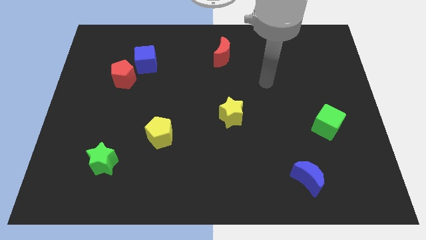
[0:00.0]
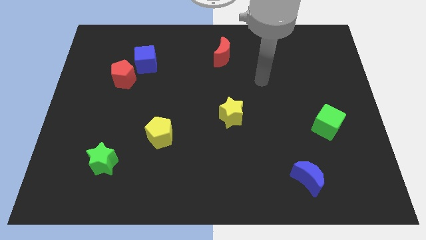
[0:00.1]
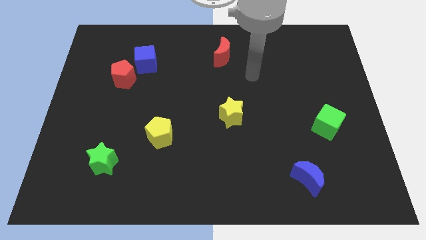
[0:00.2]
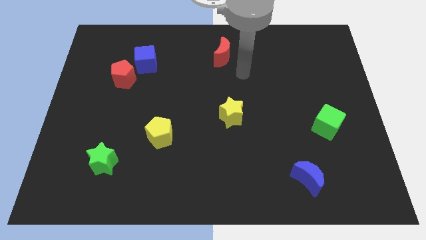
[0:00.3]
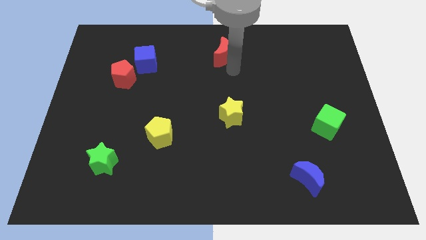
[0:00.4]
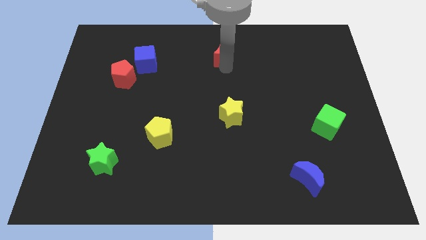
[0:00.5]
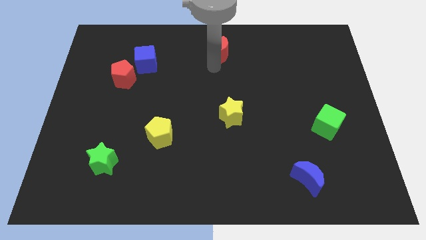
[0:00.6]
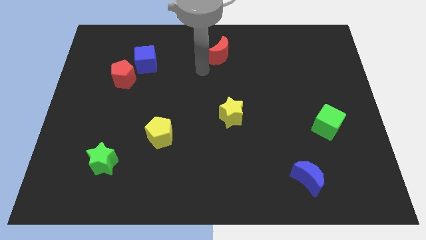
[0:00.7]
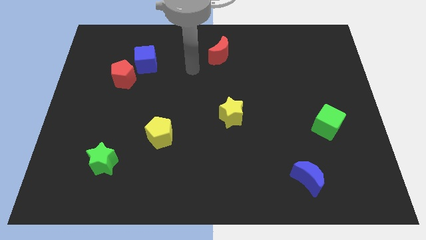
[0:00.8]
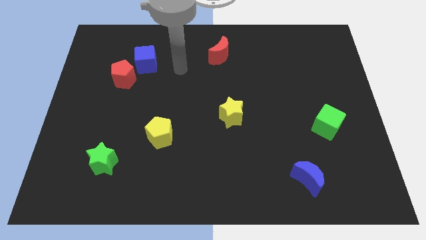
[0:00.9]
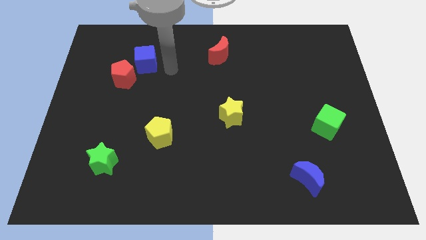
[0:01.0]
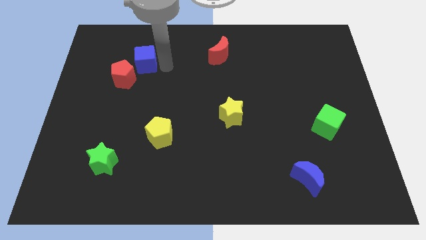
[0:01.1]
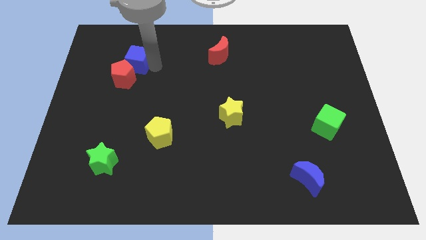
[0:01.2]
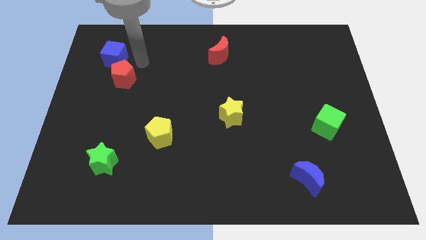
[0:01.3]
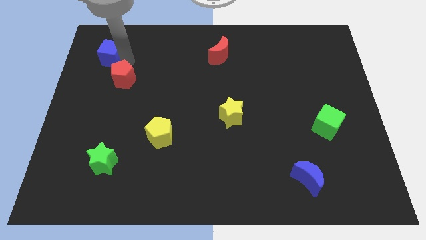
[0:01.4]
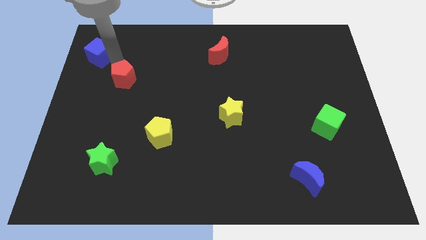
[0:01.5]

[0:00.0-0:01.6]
pull the red pentagon apart from the blue cube

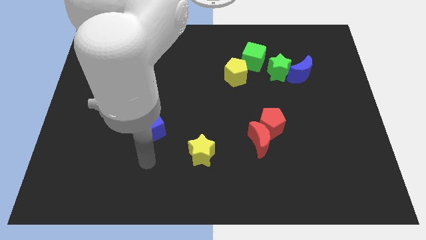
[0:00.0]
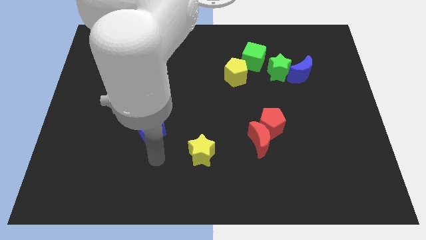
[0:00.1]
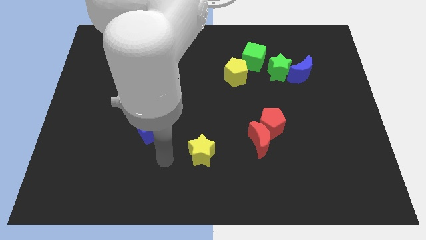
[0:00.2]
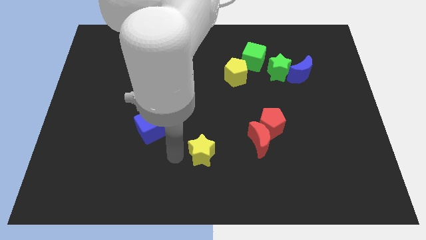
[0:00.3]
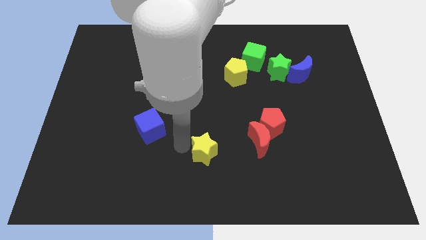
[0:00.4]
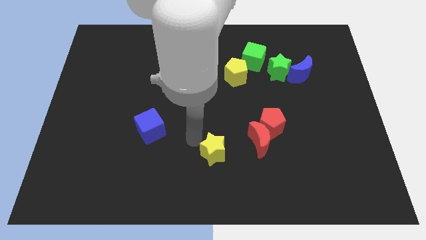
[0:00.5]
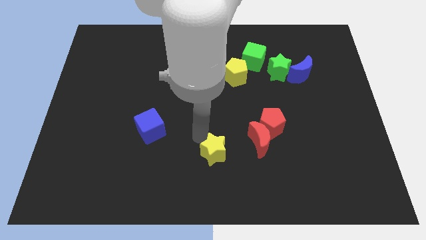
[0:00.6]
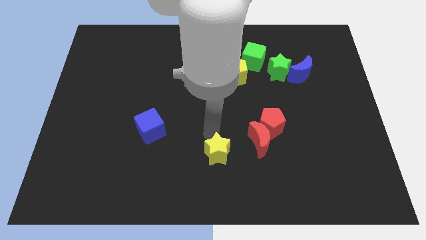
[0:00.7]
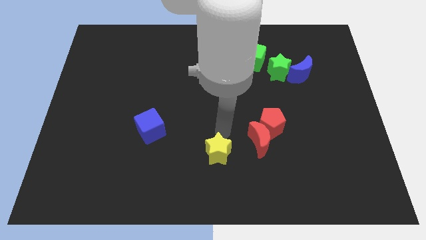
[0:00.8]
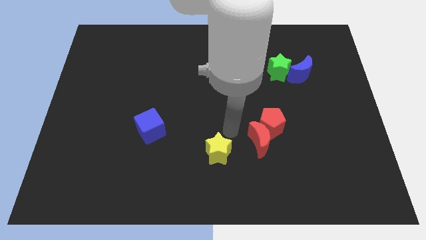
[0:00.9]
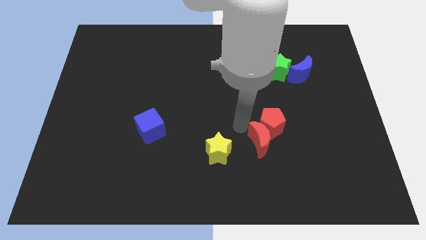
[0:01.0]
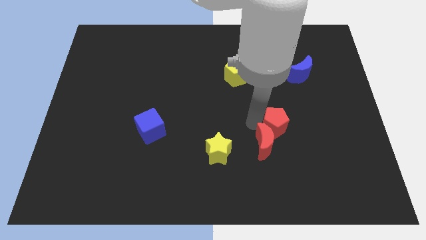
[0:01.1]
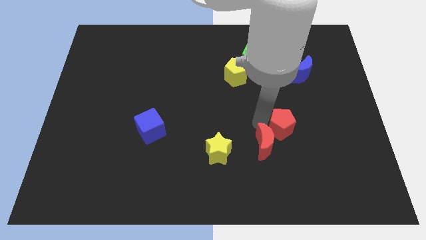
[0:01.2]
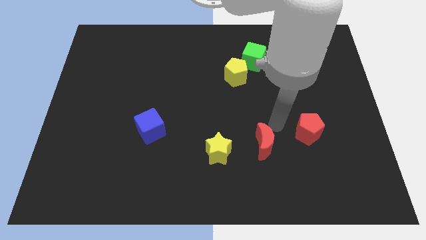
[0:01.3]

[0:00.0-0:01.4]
move the red moon away from the red pentagon

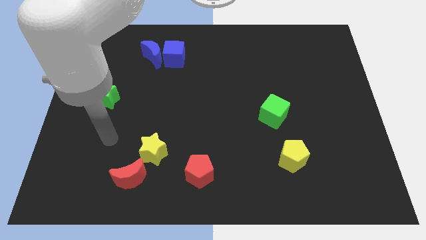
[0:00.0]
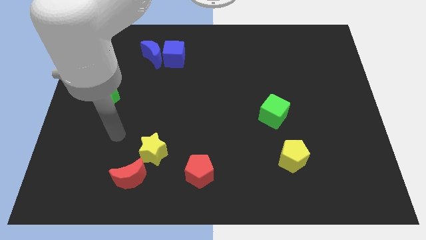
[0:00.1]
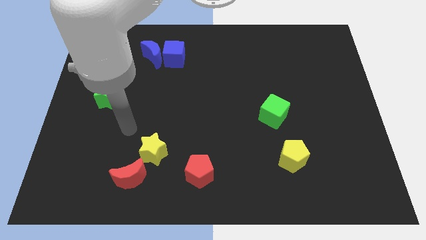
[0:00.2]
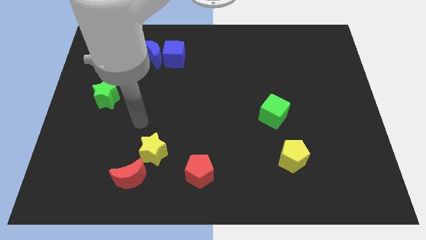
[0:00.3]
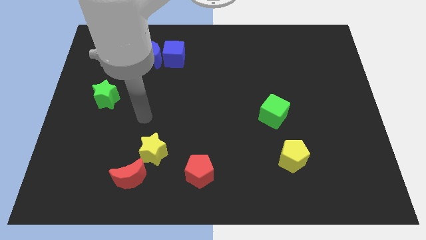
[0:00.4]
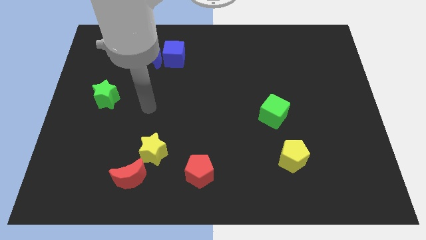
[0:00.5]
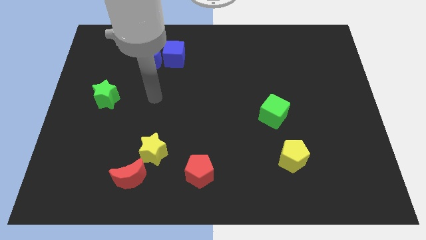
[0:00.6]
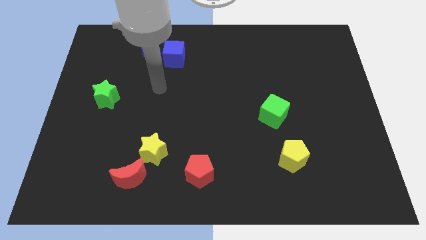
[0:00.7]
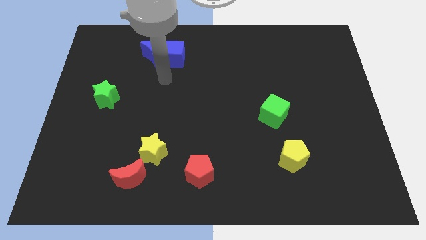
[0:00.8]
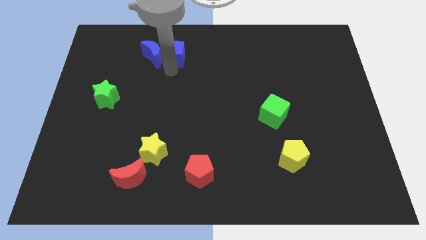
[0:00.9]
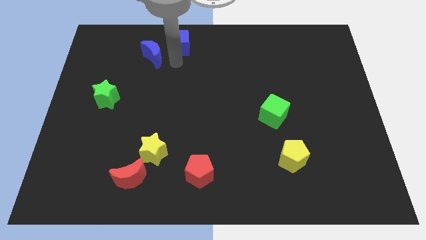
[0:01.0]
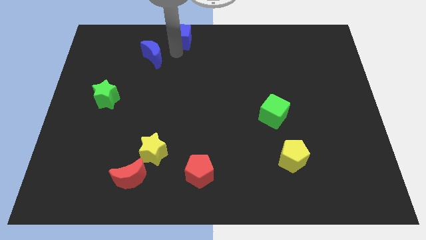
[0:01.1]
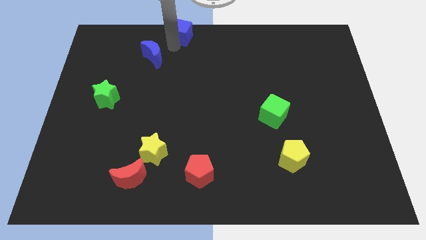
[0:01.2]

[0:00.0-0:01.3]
separate the blue moon from the blue cube

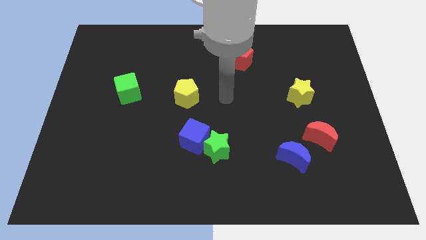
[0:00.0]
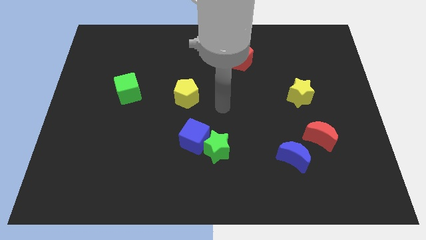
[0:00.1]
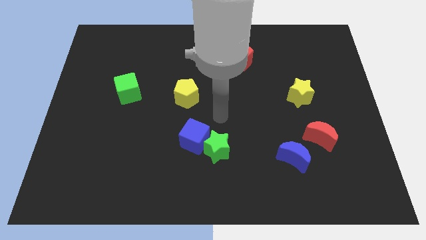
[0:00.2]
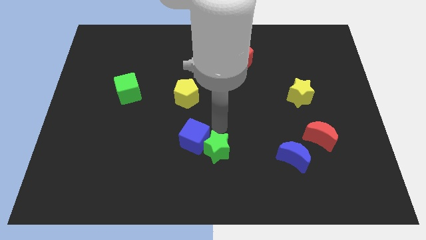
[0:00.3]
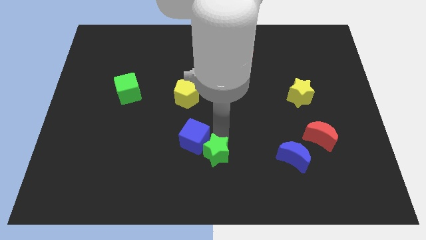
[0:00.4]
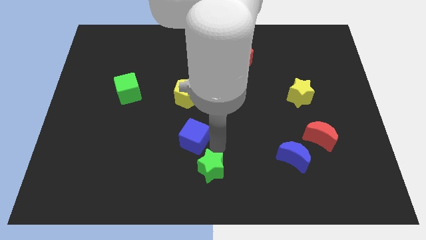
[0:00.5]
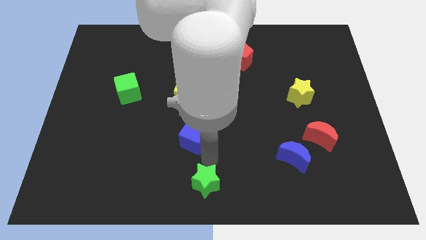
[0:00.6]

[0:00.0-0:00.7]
separate the blue cube from the green star

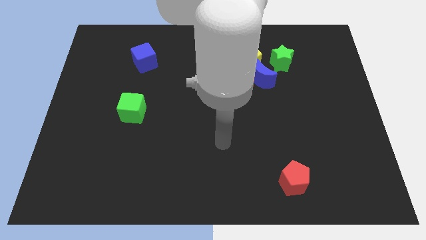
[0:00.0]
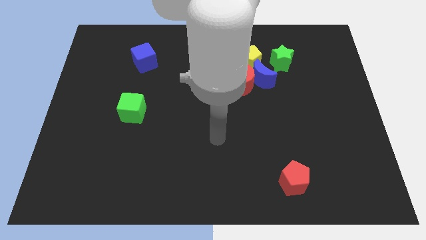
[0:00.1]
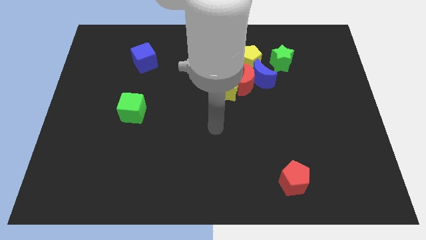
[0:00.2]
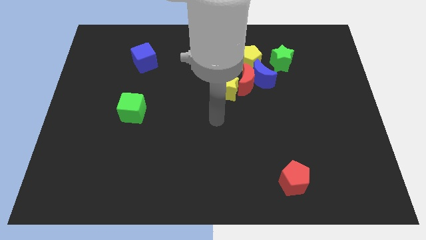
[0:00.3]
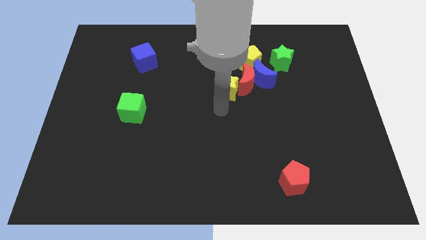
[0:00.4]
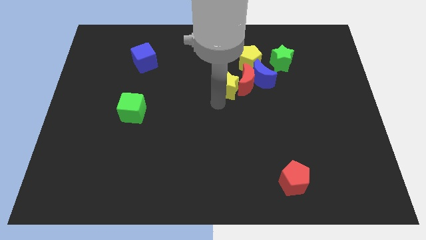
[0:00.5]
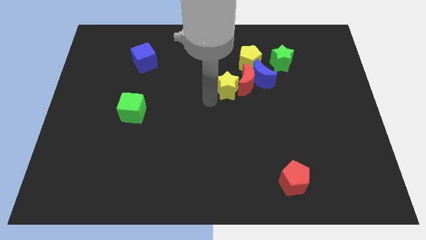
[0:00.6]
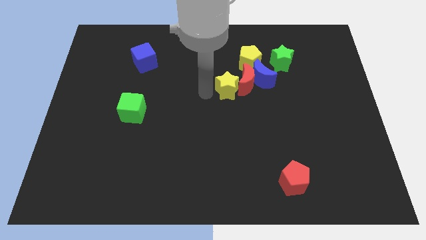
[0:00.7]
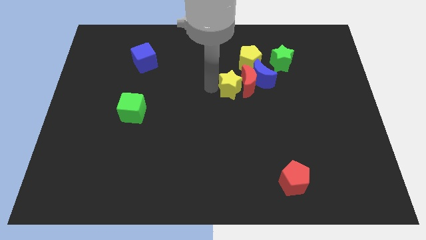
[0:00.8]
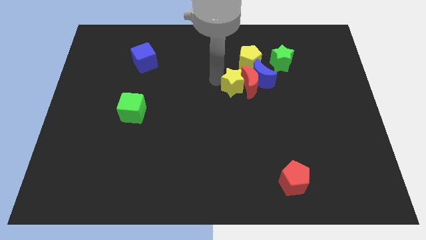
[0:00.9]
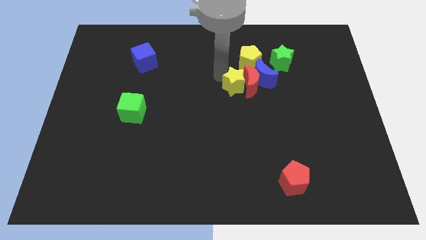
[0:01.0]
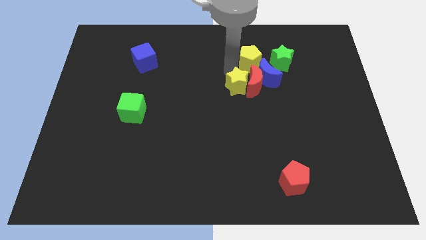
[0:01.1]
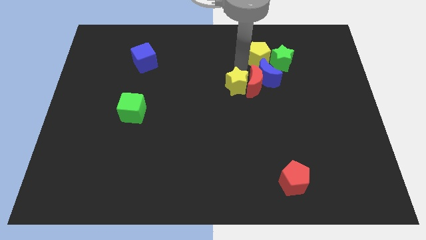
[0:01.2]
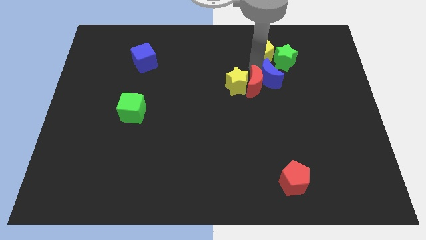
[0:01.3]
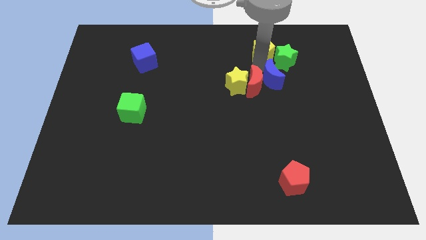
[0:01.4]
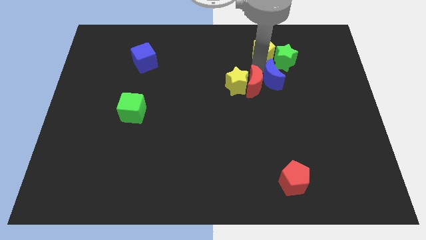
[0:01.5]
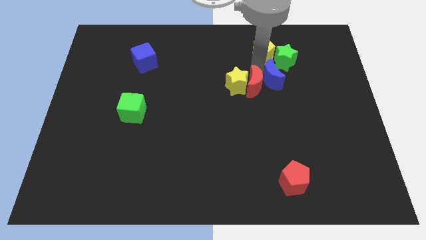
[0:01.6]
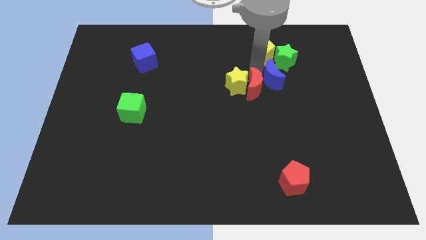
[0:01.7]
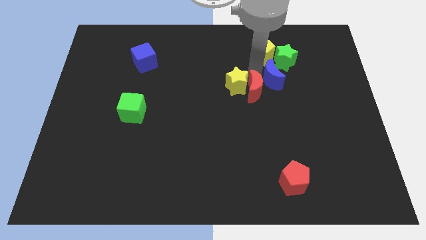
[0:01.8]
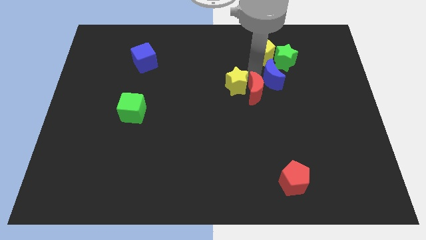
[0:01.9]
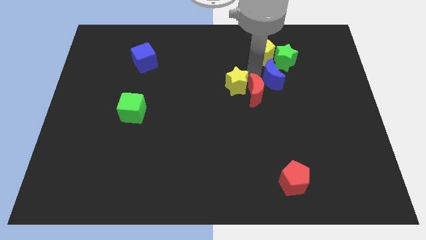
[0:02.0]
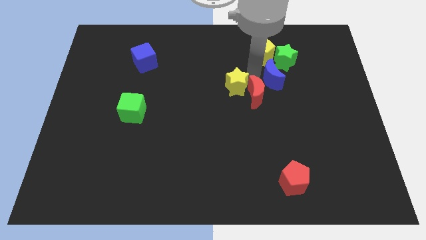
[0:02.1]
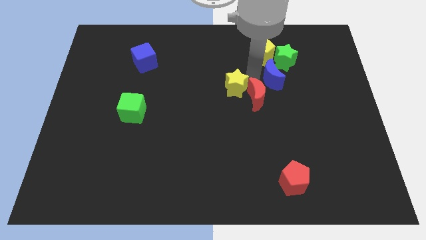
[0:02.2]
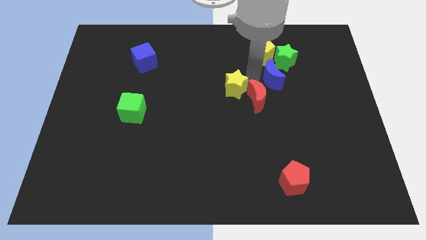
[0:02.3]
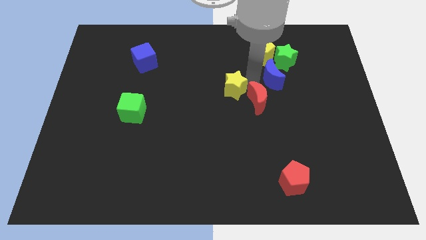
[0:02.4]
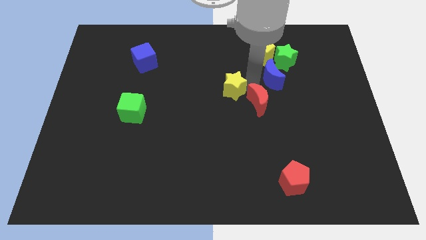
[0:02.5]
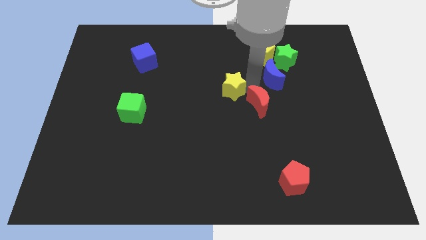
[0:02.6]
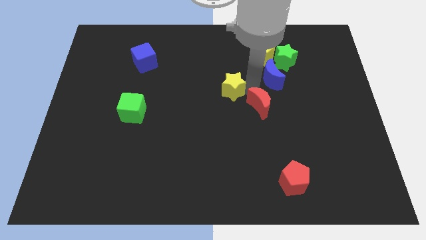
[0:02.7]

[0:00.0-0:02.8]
move the red moon away from the blue moon, yellow star, and yellow pentagon

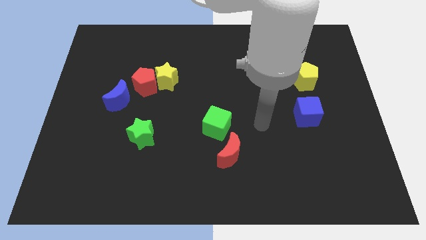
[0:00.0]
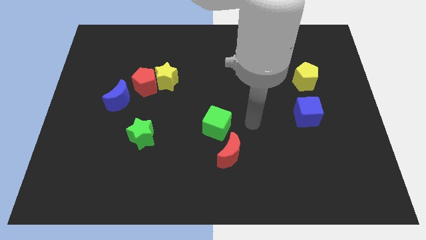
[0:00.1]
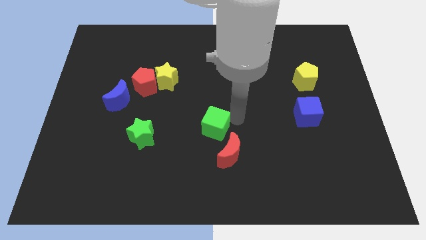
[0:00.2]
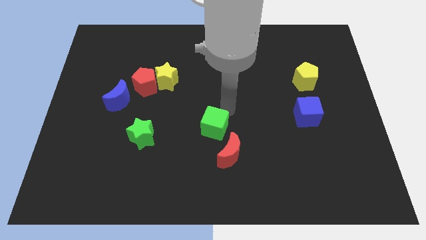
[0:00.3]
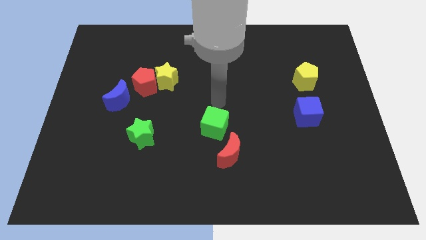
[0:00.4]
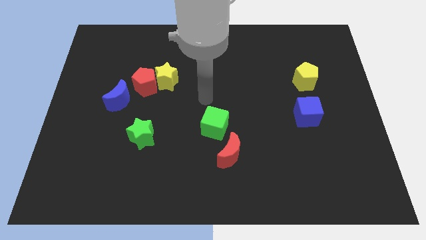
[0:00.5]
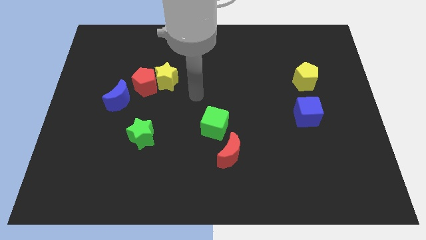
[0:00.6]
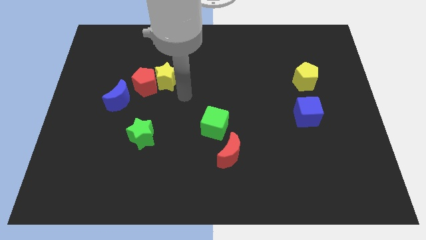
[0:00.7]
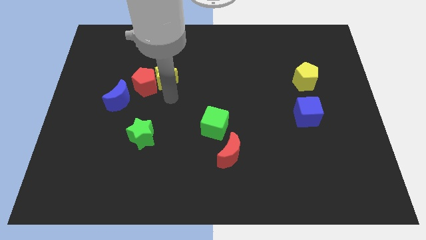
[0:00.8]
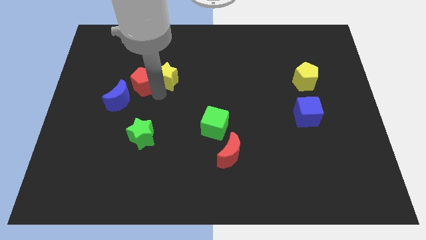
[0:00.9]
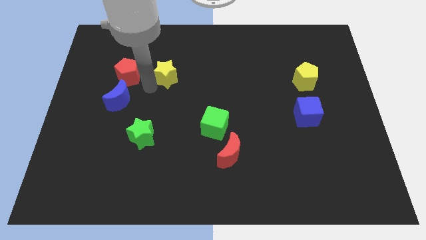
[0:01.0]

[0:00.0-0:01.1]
separate the yellow star from the red pentagon

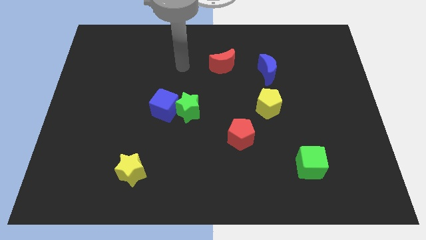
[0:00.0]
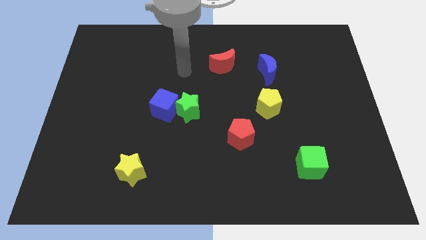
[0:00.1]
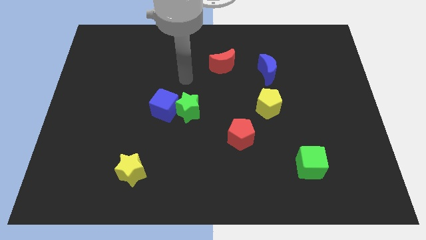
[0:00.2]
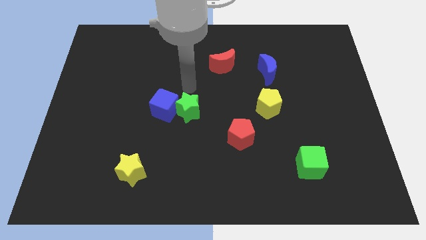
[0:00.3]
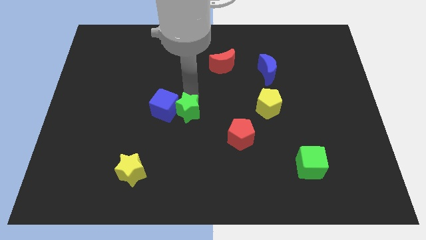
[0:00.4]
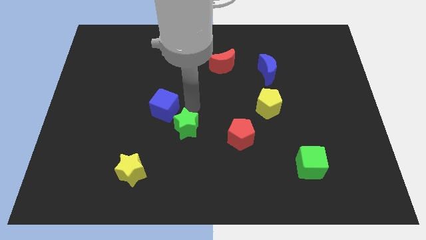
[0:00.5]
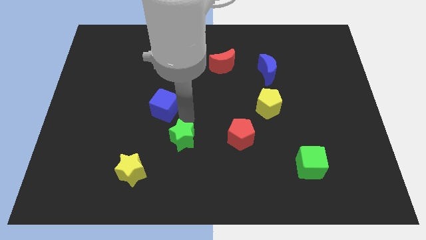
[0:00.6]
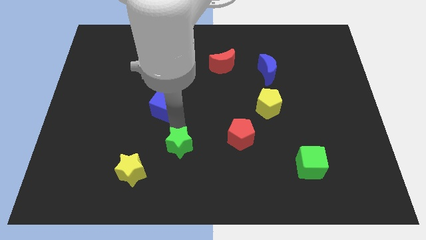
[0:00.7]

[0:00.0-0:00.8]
pull the blue cube apart from the green star
